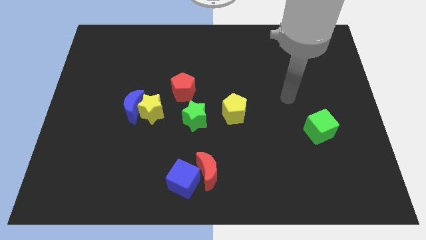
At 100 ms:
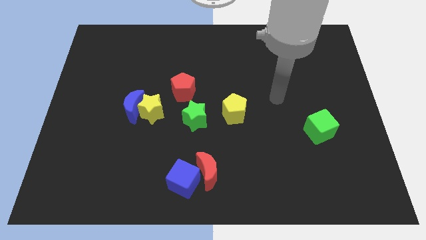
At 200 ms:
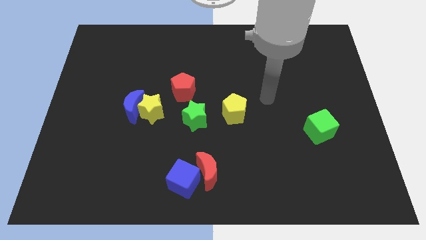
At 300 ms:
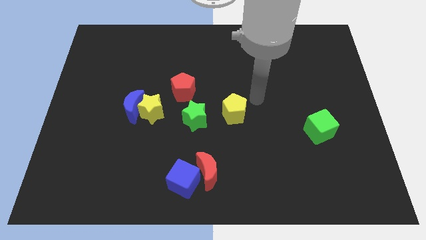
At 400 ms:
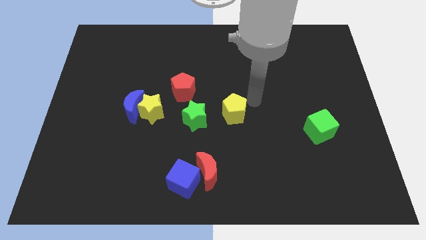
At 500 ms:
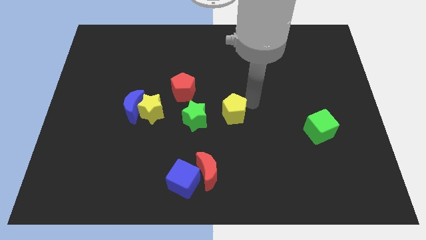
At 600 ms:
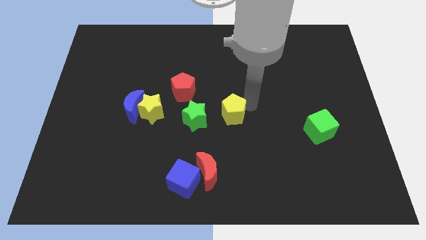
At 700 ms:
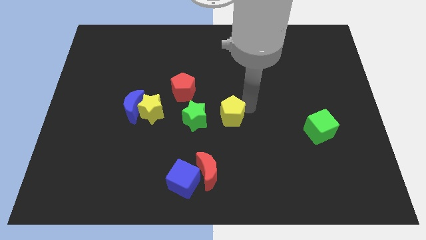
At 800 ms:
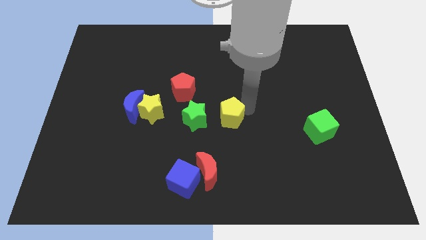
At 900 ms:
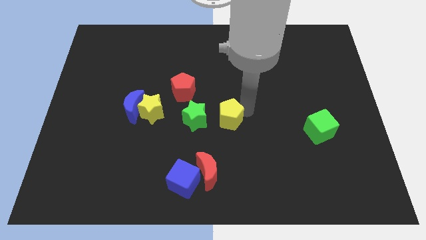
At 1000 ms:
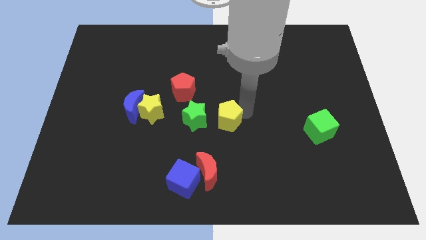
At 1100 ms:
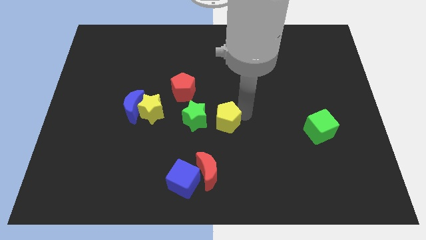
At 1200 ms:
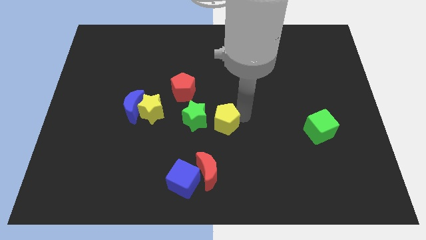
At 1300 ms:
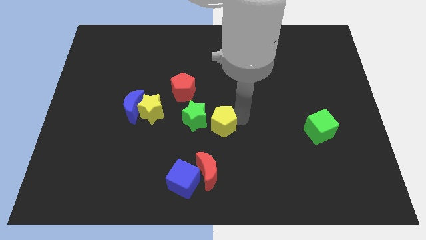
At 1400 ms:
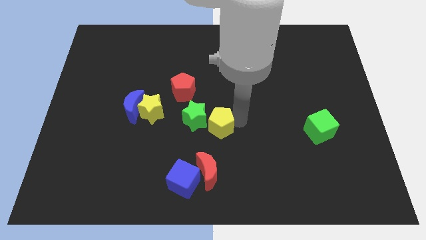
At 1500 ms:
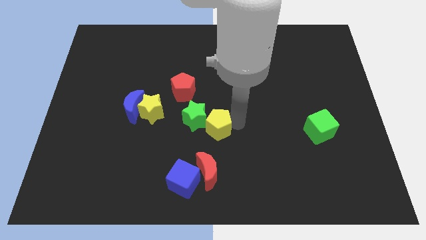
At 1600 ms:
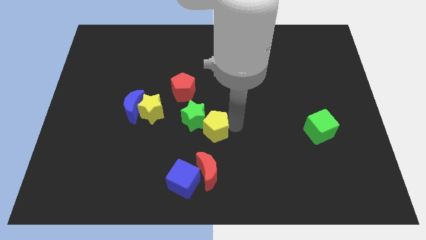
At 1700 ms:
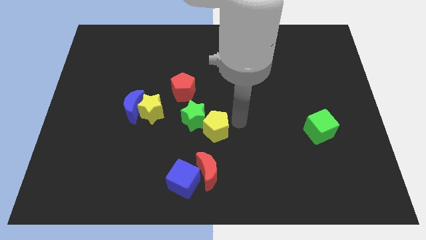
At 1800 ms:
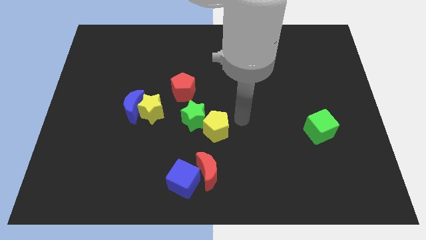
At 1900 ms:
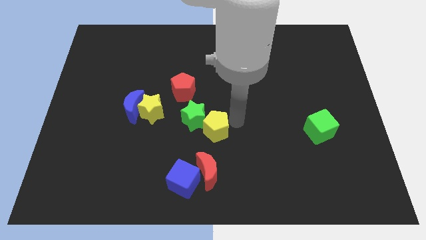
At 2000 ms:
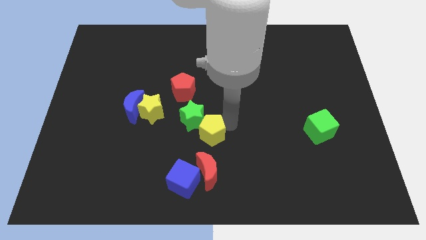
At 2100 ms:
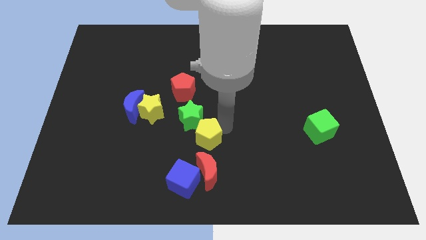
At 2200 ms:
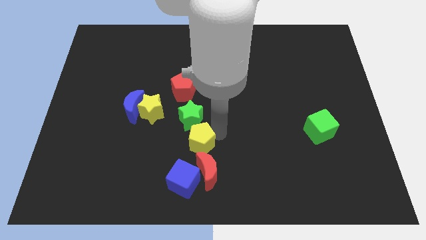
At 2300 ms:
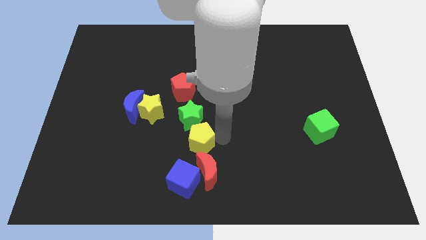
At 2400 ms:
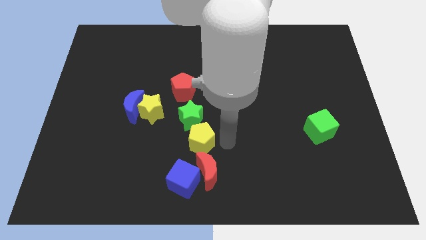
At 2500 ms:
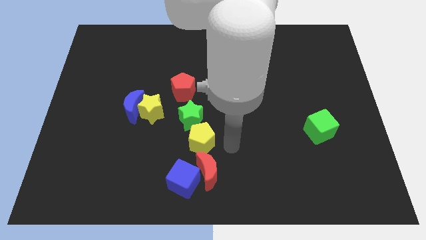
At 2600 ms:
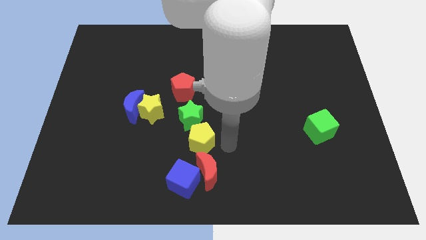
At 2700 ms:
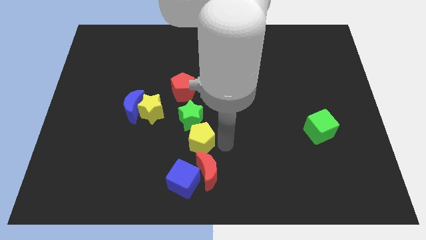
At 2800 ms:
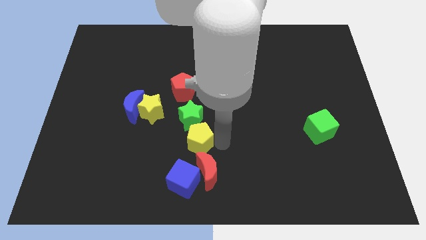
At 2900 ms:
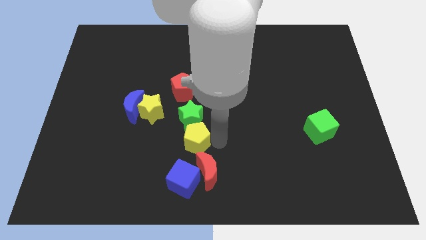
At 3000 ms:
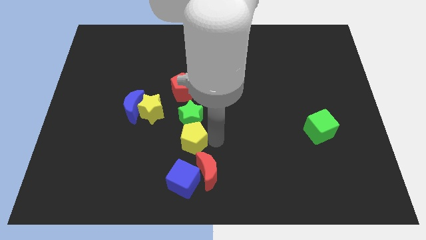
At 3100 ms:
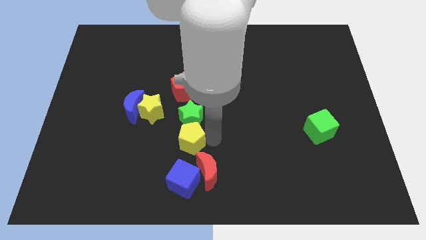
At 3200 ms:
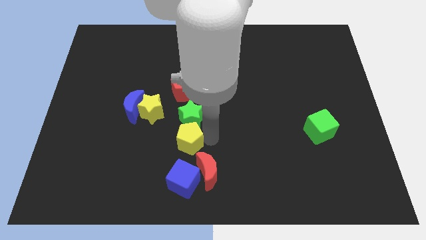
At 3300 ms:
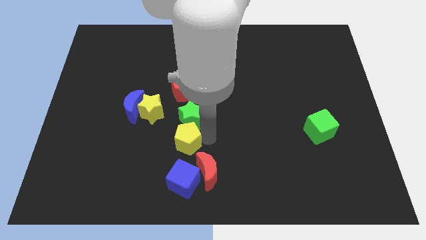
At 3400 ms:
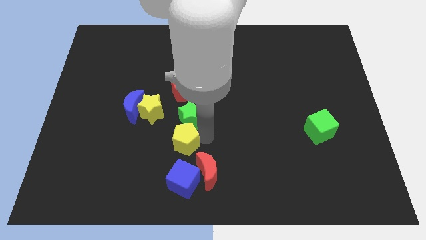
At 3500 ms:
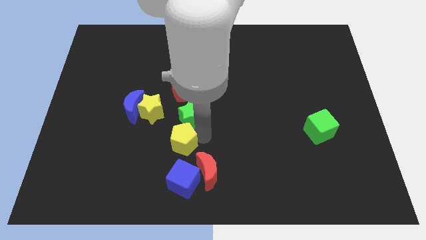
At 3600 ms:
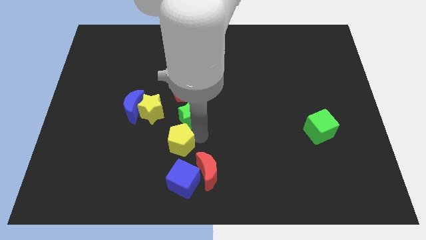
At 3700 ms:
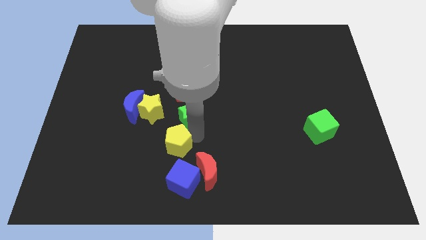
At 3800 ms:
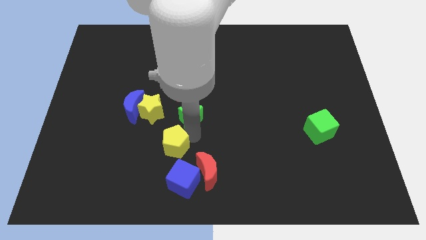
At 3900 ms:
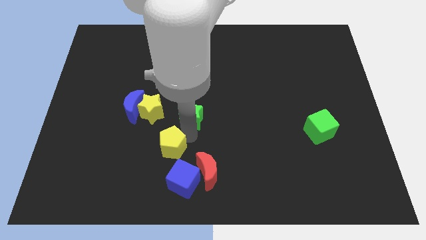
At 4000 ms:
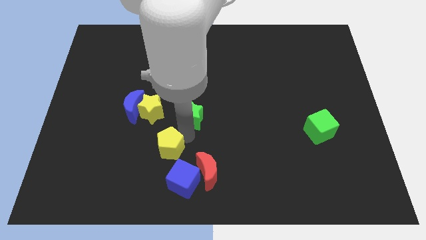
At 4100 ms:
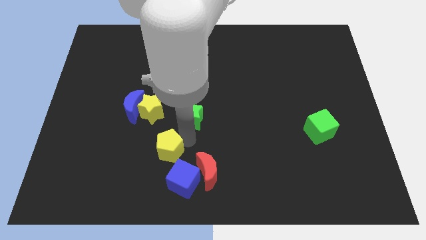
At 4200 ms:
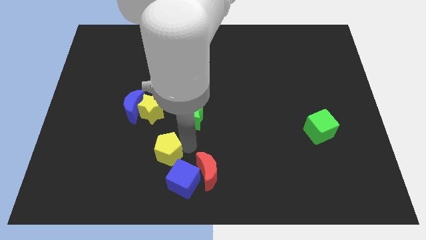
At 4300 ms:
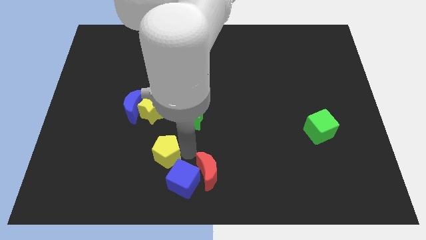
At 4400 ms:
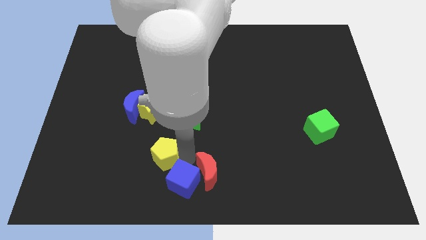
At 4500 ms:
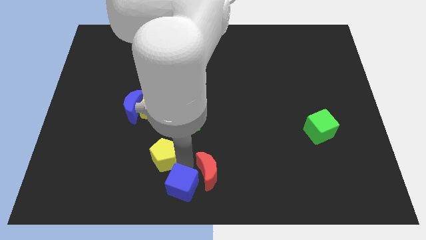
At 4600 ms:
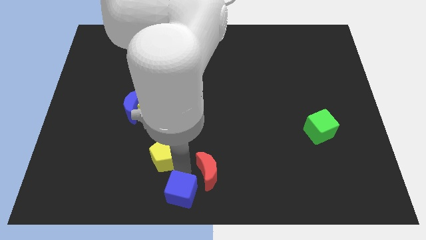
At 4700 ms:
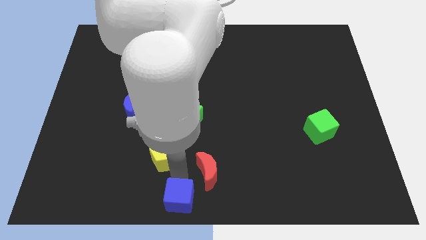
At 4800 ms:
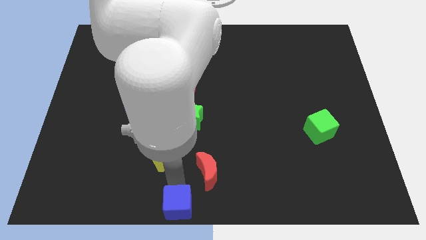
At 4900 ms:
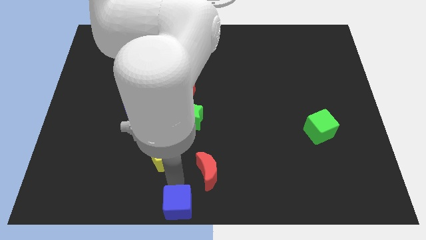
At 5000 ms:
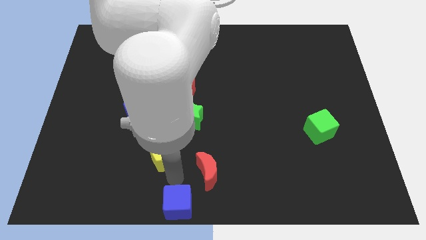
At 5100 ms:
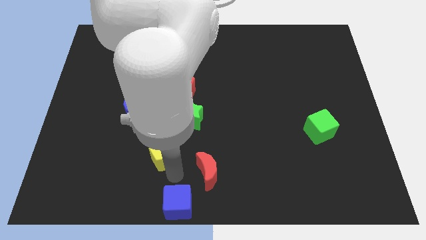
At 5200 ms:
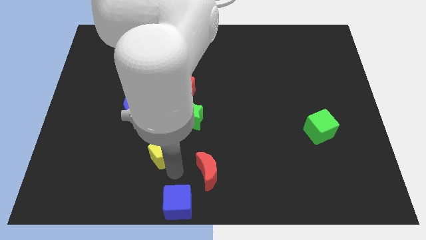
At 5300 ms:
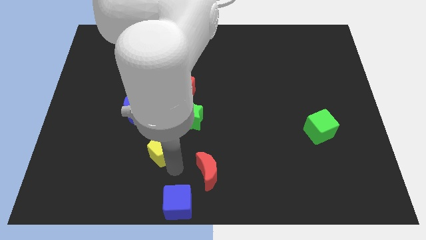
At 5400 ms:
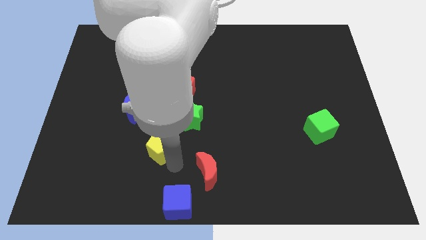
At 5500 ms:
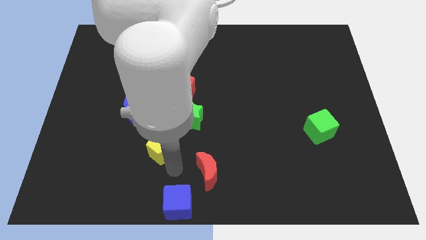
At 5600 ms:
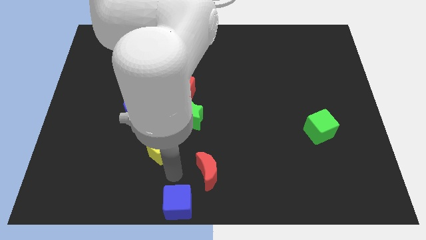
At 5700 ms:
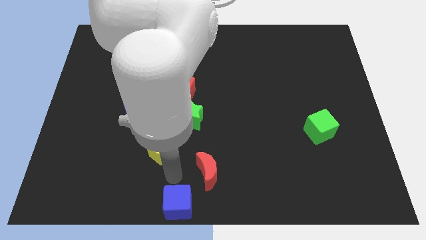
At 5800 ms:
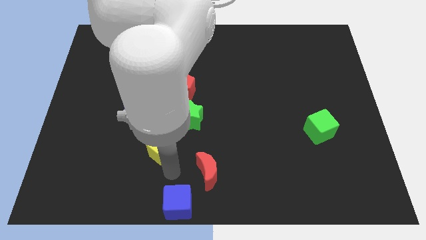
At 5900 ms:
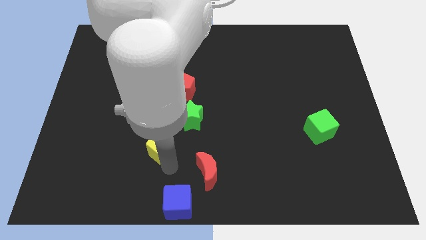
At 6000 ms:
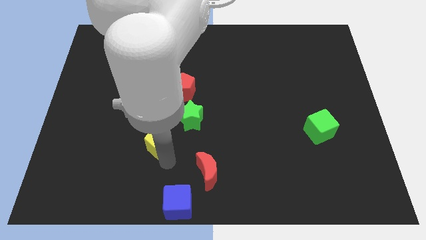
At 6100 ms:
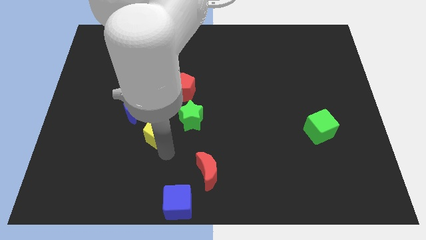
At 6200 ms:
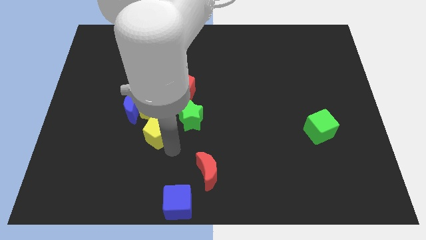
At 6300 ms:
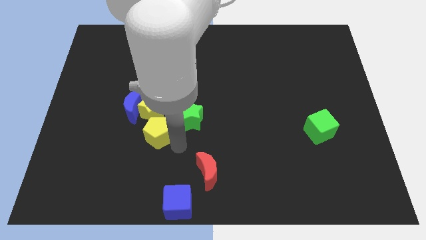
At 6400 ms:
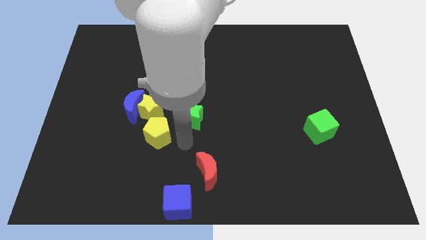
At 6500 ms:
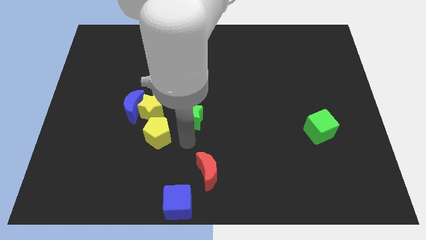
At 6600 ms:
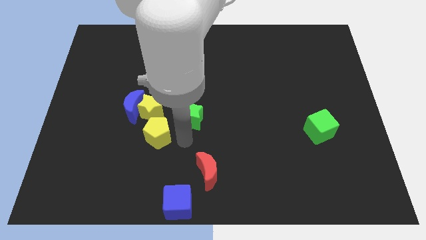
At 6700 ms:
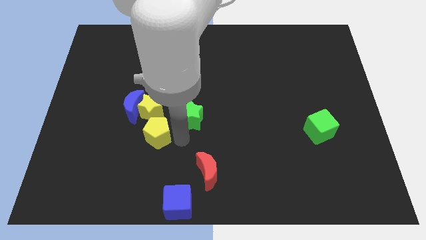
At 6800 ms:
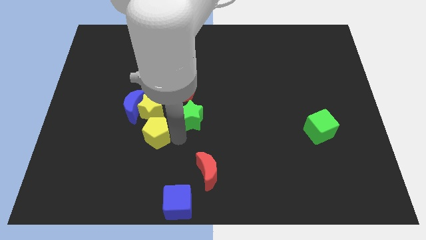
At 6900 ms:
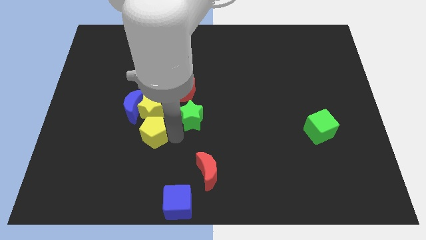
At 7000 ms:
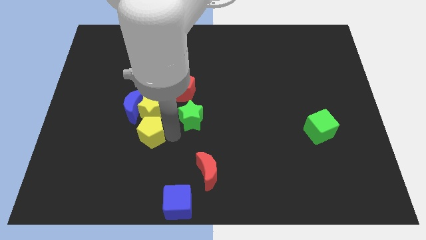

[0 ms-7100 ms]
put the yellow pentagon diagonally down and to the left of the yellow star
